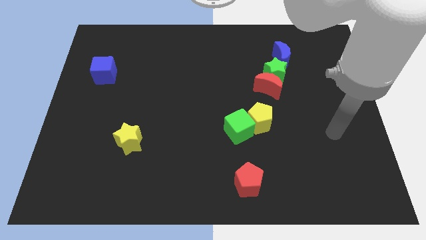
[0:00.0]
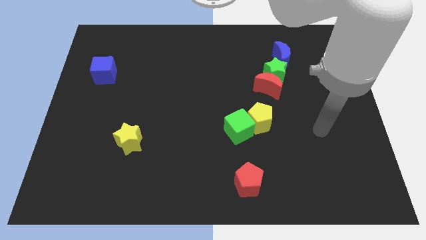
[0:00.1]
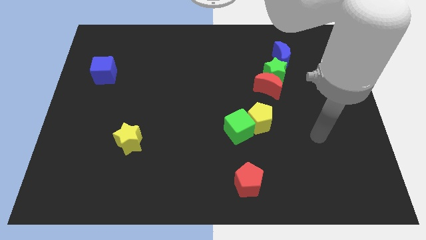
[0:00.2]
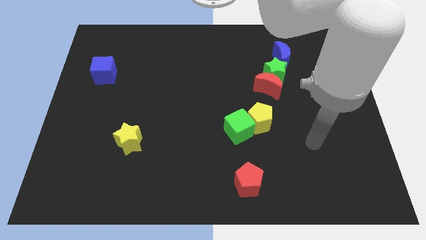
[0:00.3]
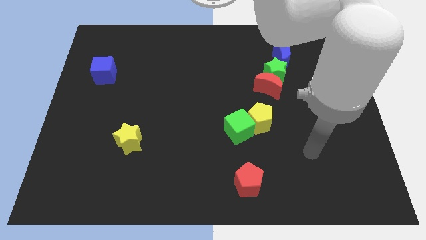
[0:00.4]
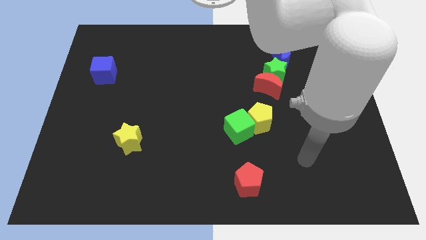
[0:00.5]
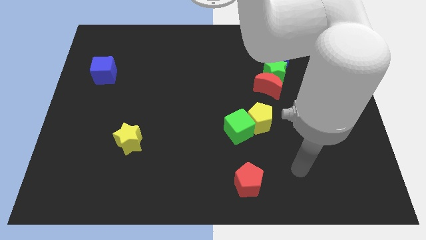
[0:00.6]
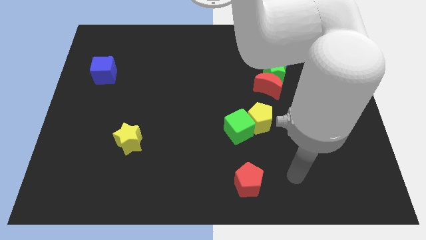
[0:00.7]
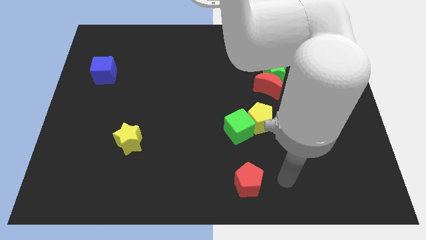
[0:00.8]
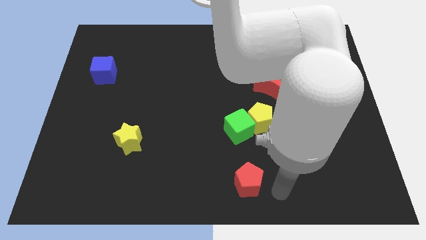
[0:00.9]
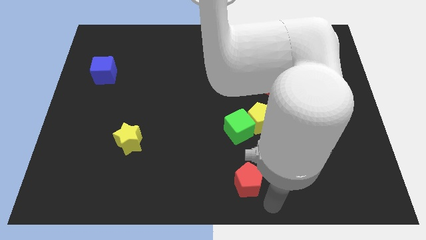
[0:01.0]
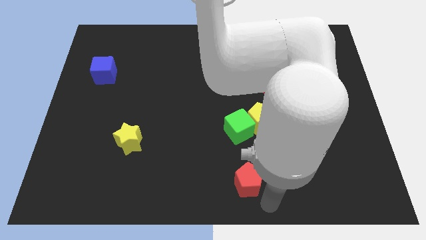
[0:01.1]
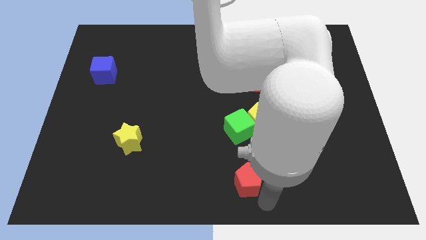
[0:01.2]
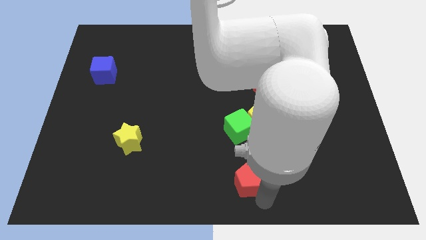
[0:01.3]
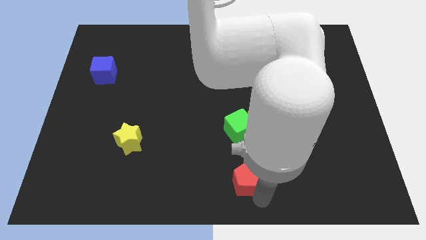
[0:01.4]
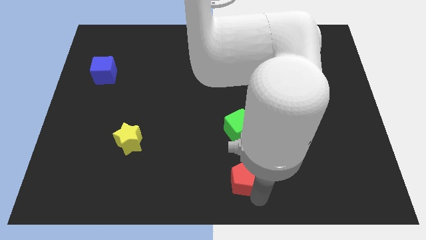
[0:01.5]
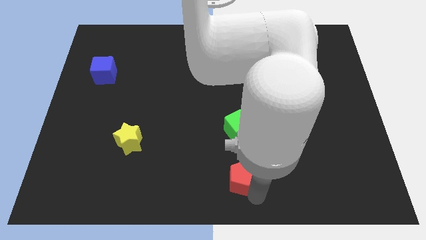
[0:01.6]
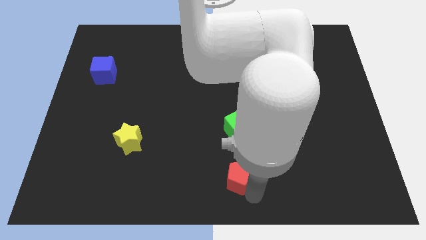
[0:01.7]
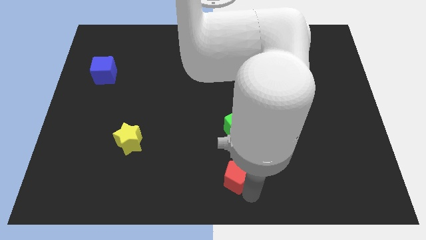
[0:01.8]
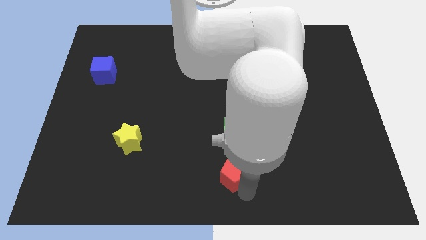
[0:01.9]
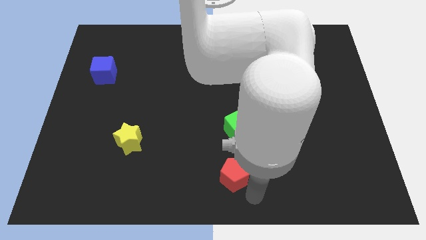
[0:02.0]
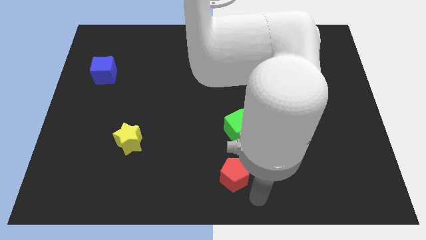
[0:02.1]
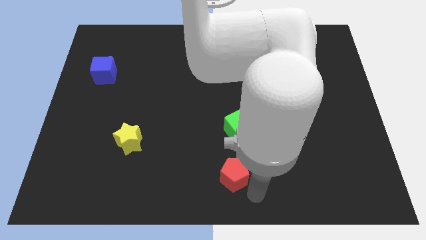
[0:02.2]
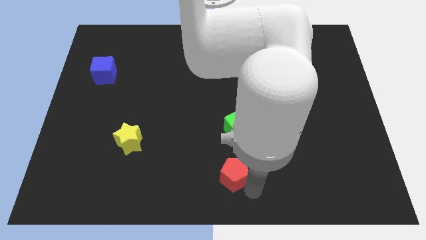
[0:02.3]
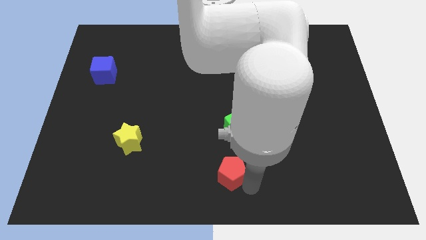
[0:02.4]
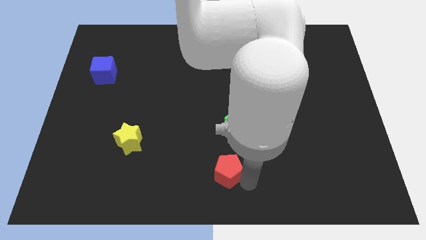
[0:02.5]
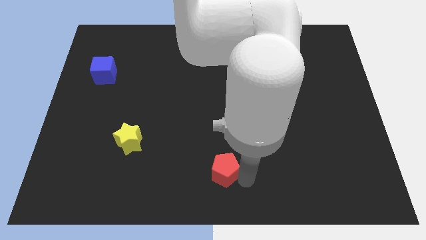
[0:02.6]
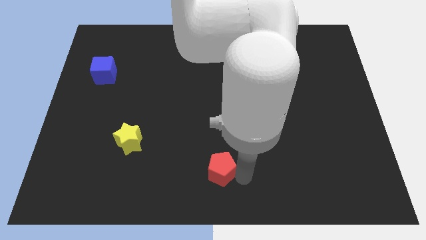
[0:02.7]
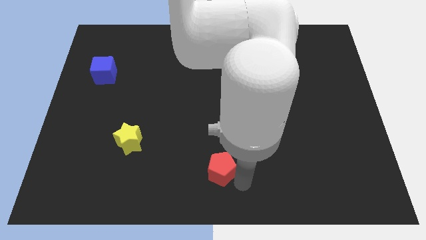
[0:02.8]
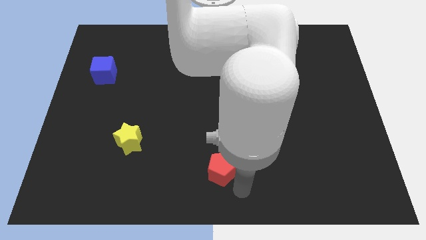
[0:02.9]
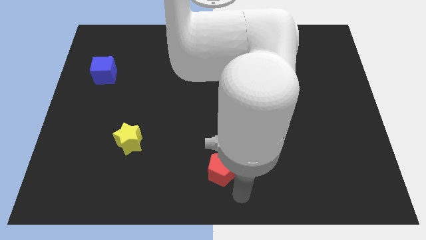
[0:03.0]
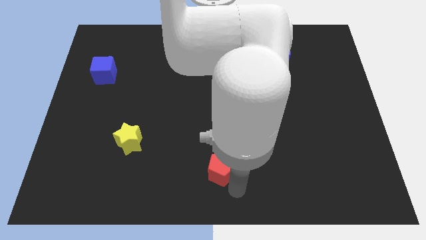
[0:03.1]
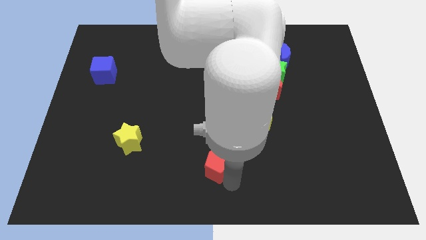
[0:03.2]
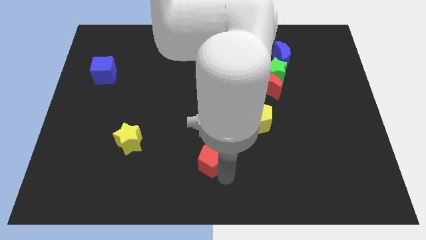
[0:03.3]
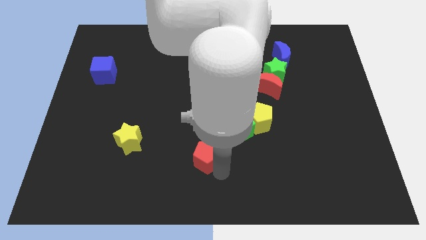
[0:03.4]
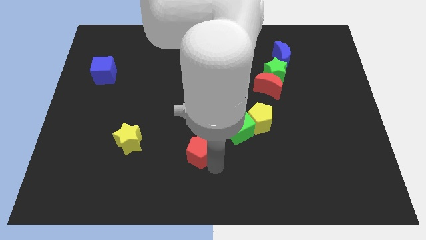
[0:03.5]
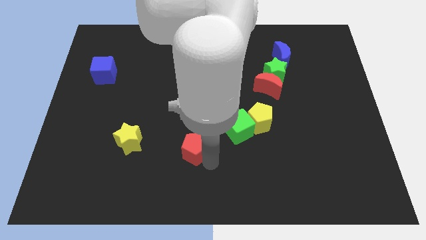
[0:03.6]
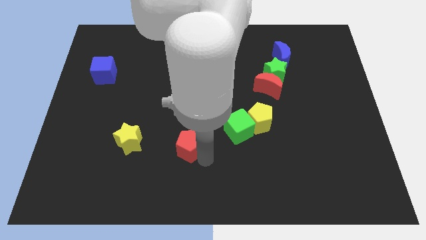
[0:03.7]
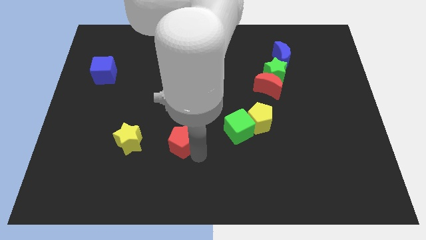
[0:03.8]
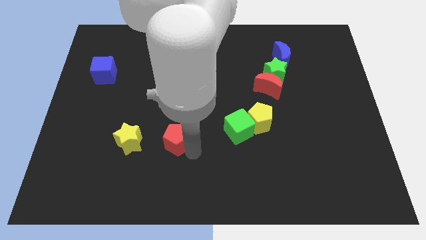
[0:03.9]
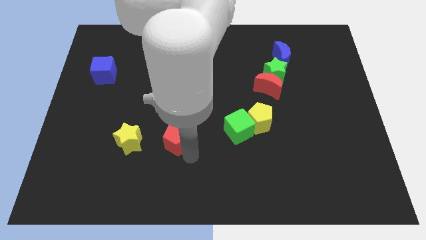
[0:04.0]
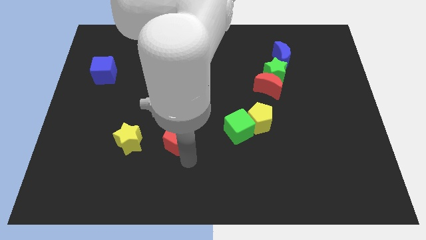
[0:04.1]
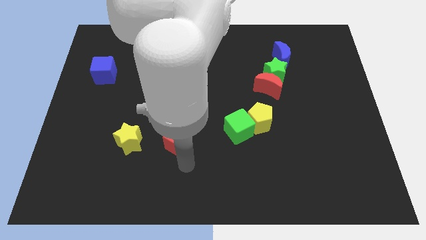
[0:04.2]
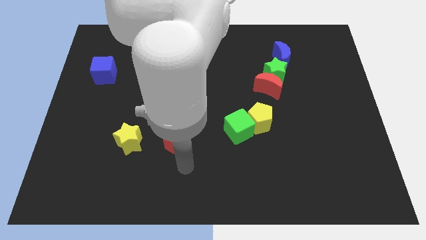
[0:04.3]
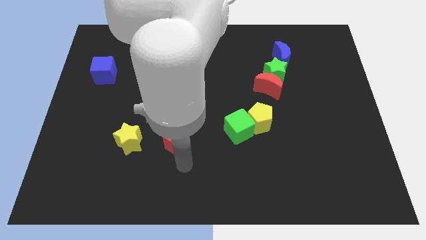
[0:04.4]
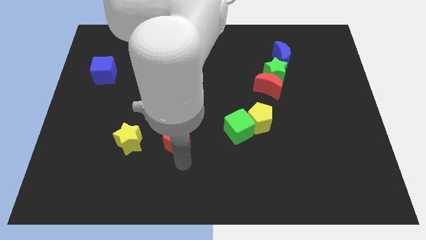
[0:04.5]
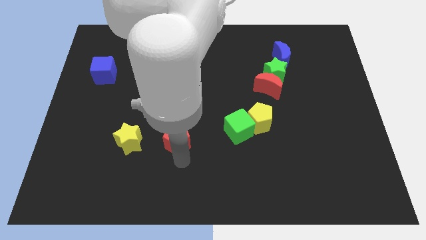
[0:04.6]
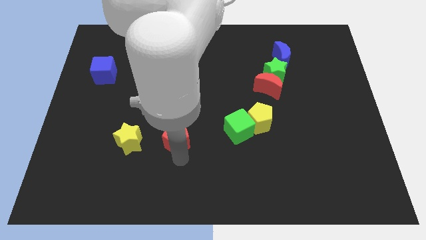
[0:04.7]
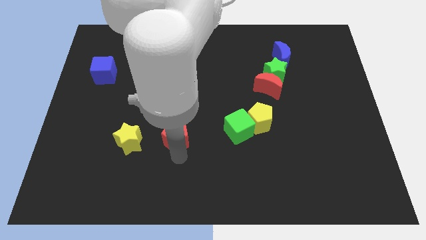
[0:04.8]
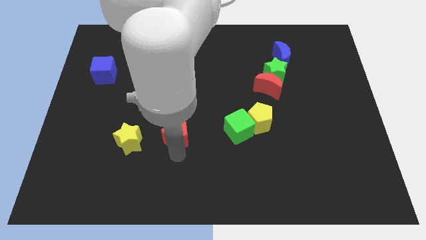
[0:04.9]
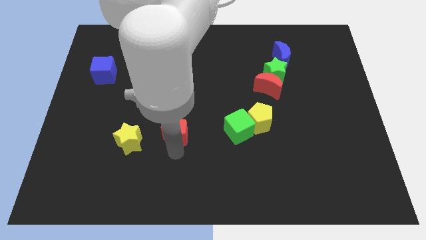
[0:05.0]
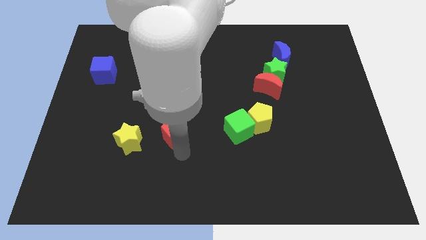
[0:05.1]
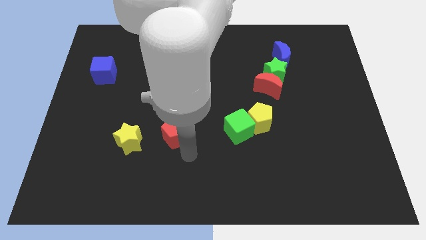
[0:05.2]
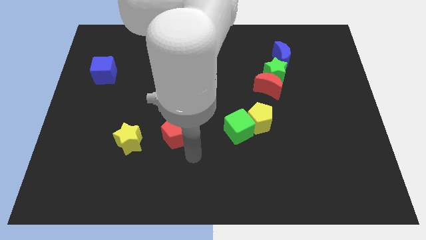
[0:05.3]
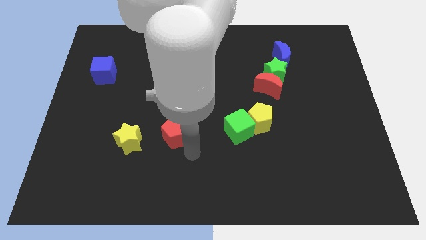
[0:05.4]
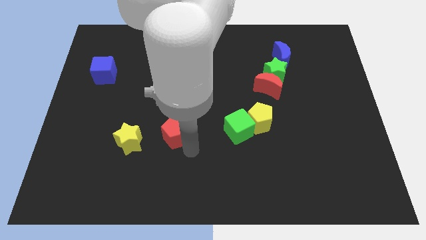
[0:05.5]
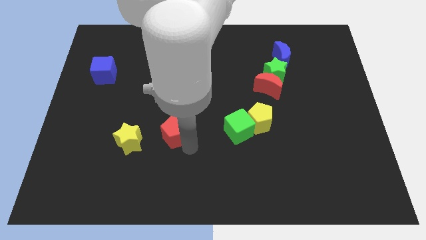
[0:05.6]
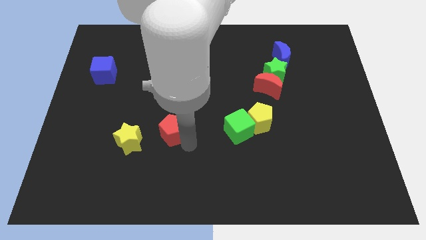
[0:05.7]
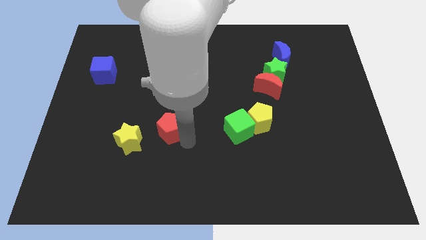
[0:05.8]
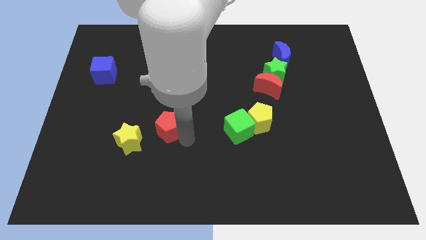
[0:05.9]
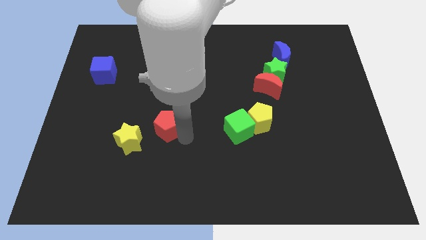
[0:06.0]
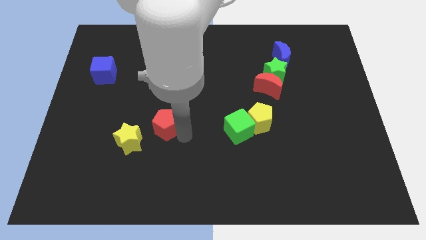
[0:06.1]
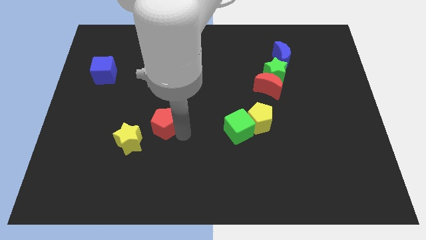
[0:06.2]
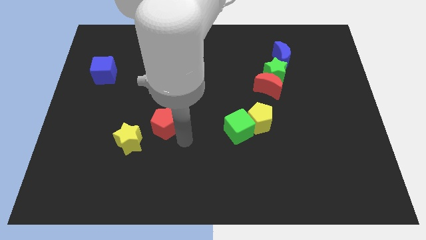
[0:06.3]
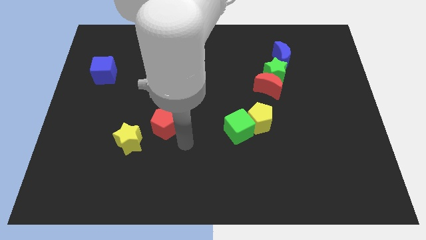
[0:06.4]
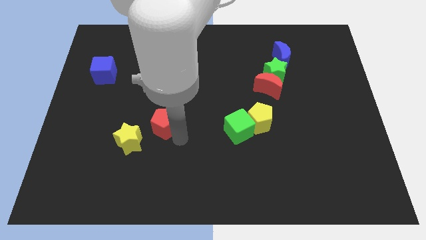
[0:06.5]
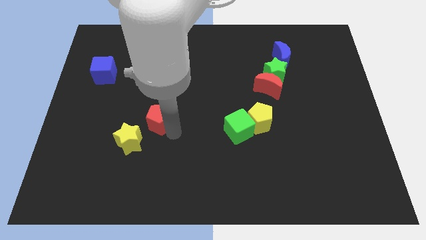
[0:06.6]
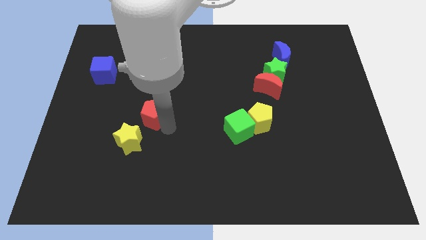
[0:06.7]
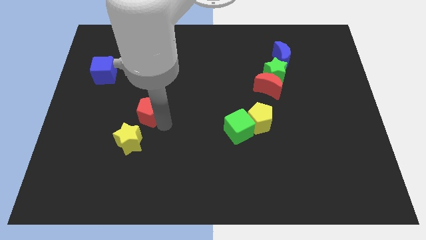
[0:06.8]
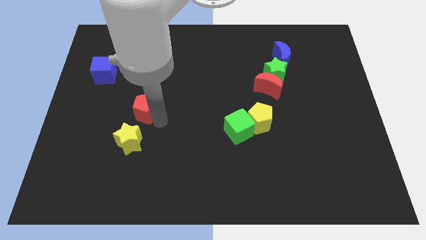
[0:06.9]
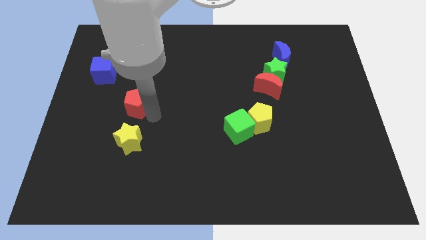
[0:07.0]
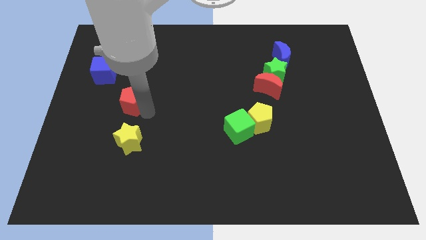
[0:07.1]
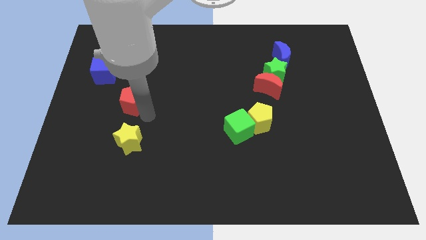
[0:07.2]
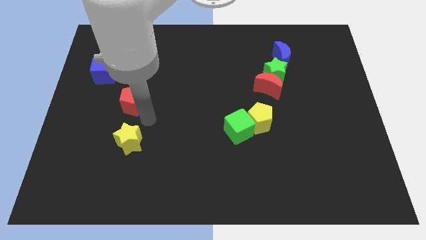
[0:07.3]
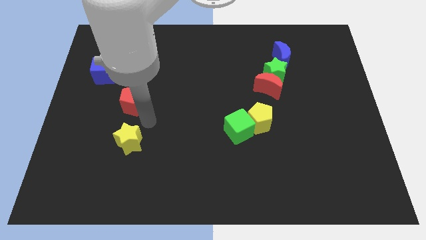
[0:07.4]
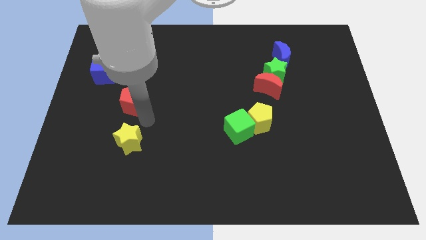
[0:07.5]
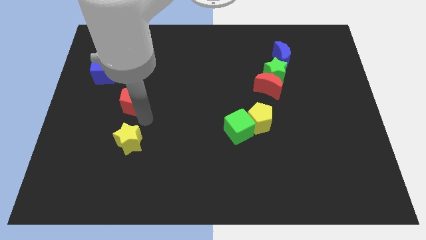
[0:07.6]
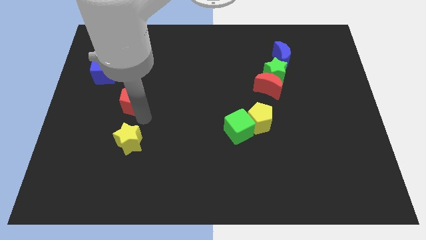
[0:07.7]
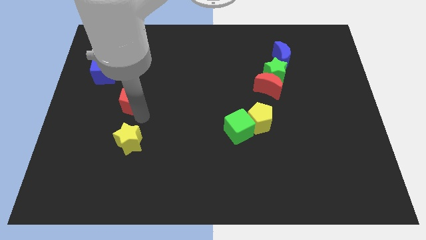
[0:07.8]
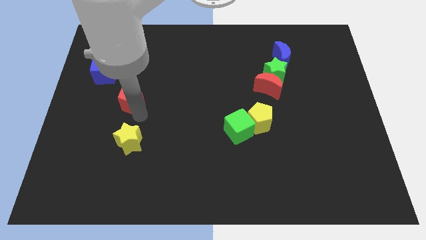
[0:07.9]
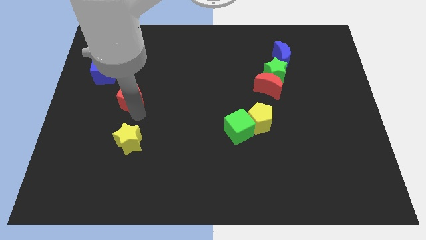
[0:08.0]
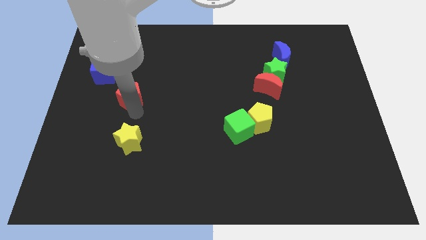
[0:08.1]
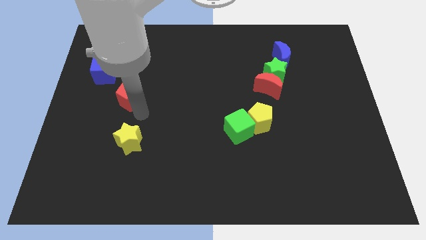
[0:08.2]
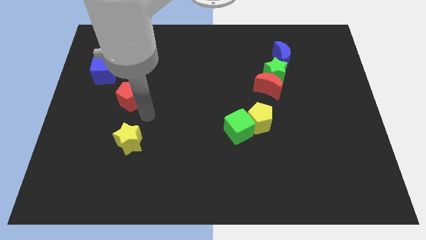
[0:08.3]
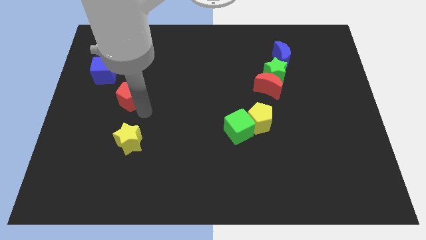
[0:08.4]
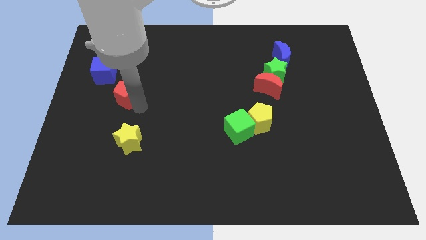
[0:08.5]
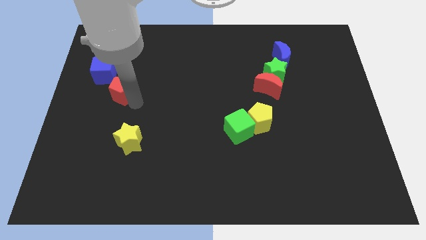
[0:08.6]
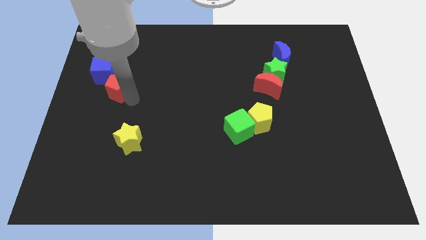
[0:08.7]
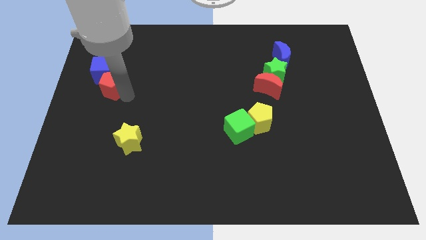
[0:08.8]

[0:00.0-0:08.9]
push the red pentagon towards the blue cube
